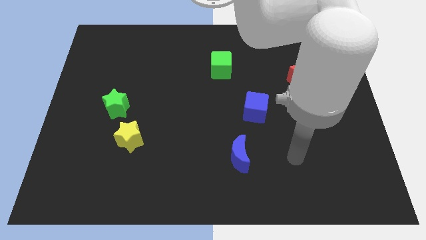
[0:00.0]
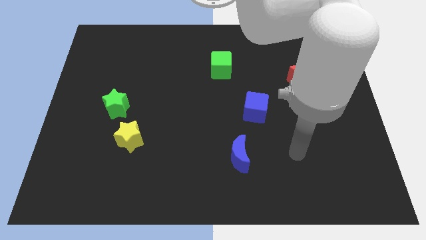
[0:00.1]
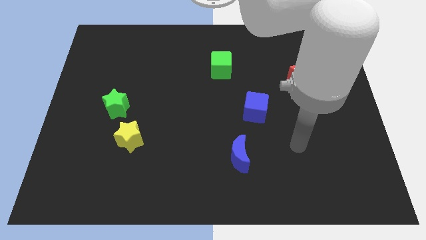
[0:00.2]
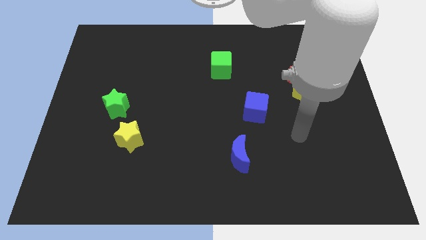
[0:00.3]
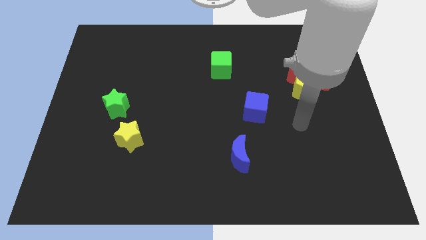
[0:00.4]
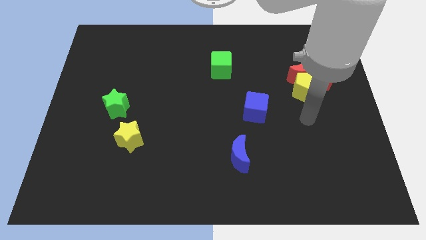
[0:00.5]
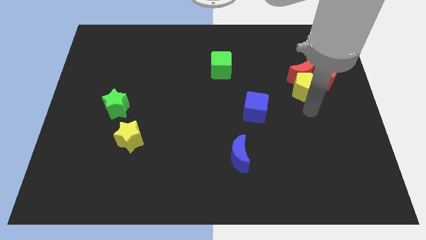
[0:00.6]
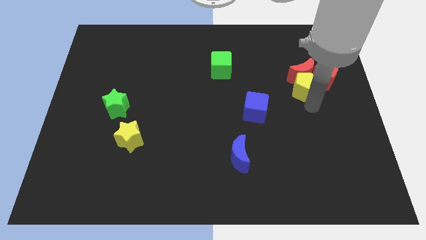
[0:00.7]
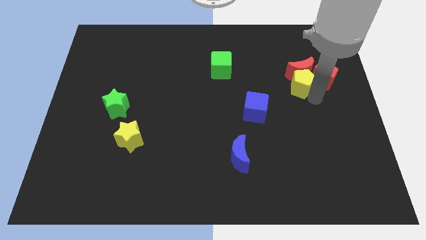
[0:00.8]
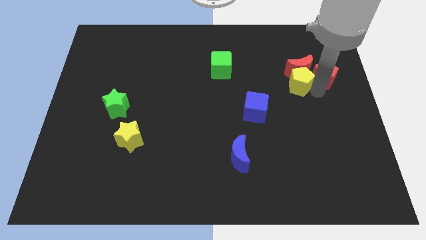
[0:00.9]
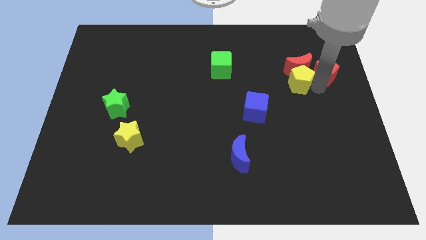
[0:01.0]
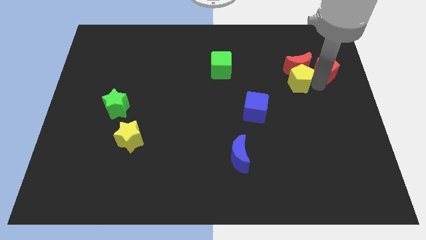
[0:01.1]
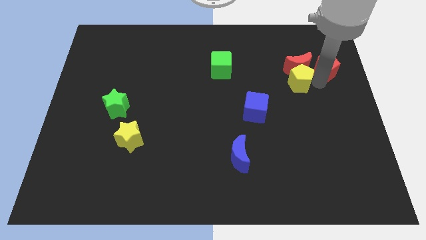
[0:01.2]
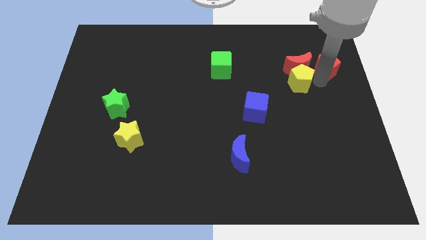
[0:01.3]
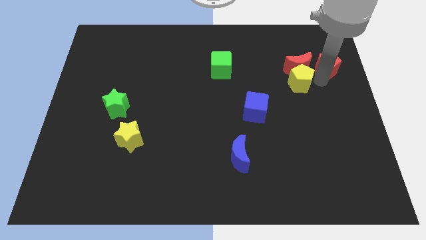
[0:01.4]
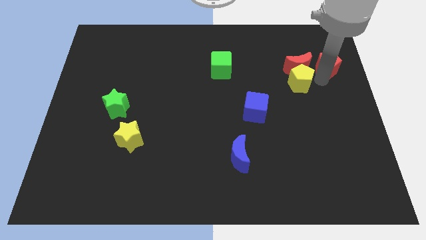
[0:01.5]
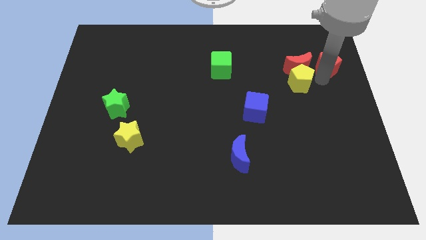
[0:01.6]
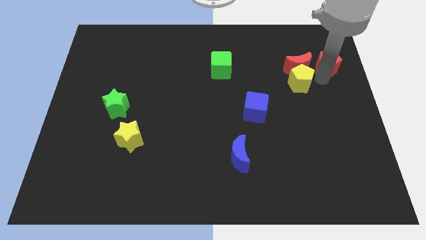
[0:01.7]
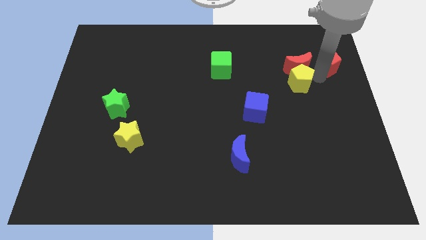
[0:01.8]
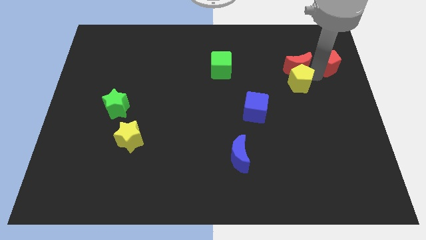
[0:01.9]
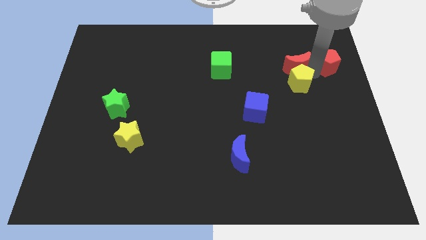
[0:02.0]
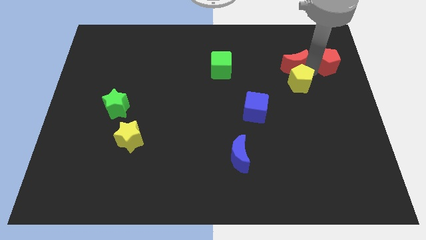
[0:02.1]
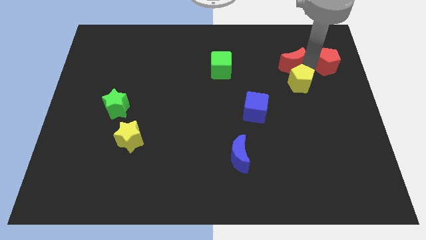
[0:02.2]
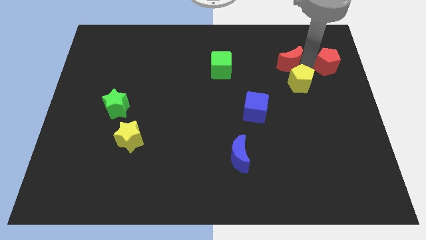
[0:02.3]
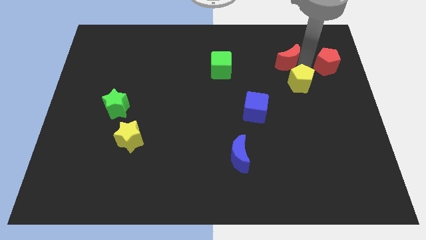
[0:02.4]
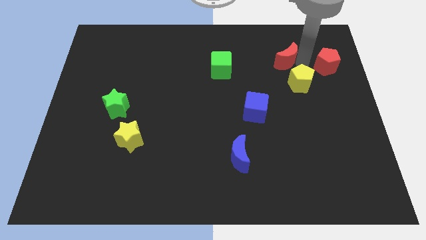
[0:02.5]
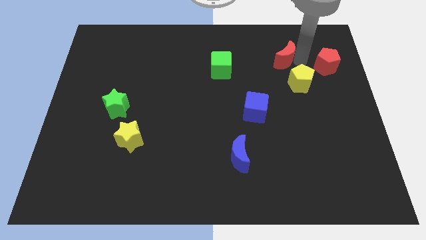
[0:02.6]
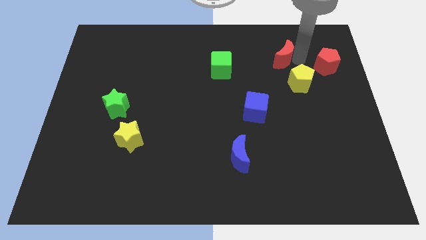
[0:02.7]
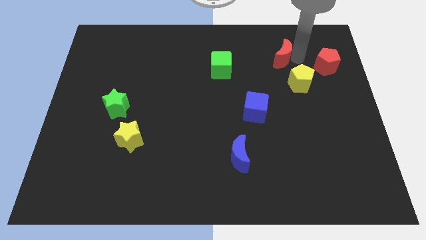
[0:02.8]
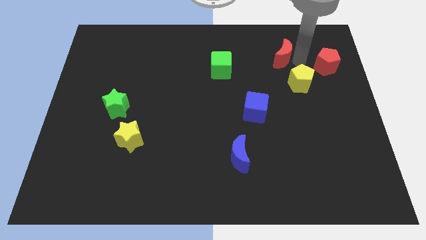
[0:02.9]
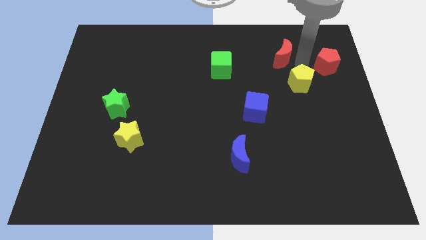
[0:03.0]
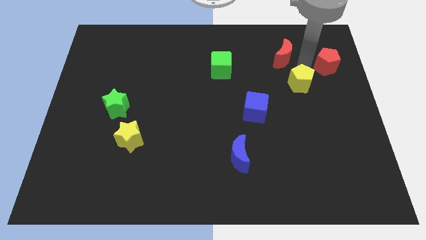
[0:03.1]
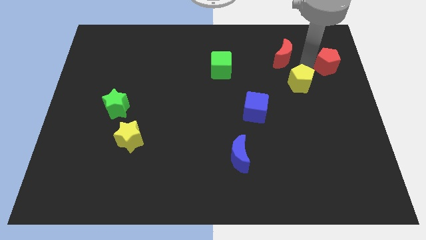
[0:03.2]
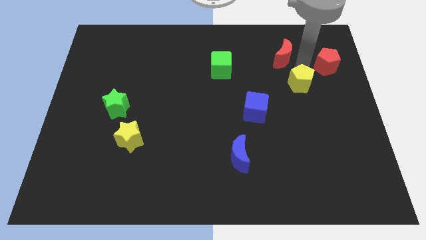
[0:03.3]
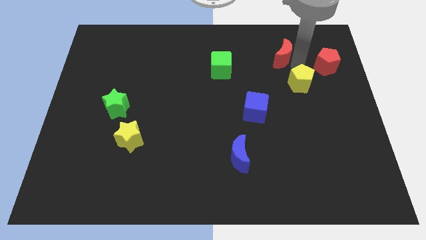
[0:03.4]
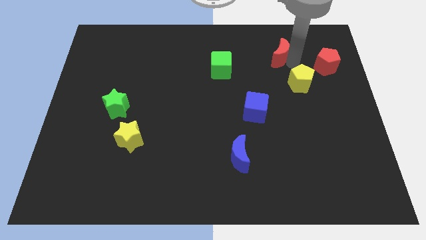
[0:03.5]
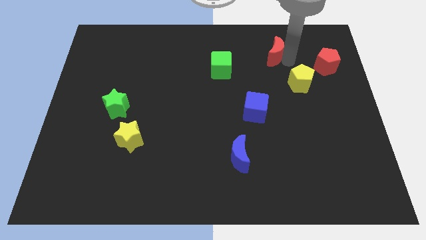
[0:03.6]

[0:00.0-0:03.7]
move the red moon away from the yellow pentagon and red pentagon

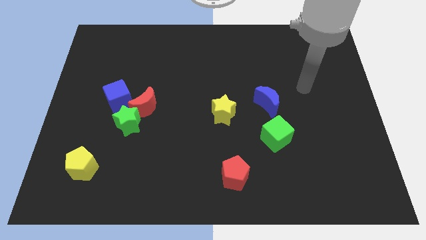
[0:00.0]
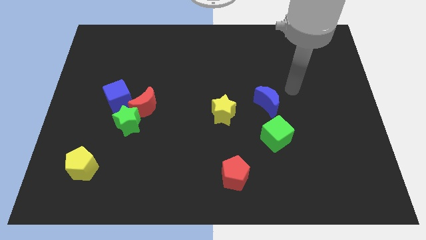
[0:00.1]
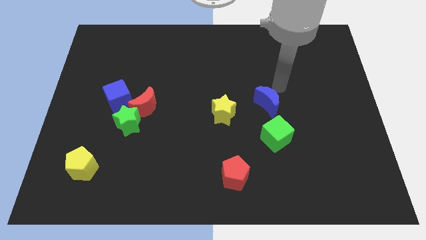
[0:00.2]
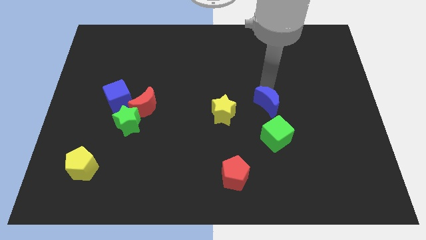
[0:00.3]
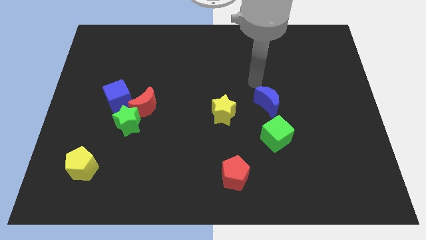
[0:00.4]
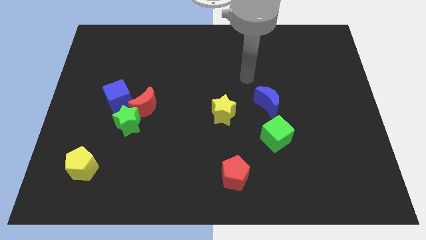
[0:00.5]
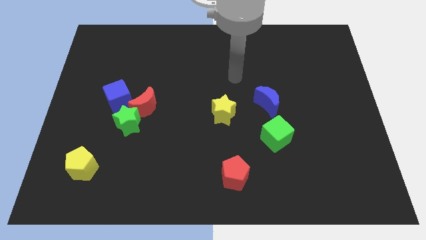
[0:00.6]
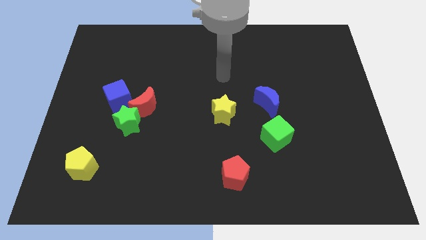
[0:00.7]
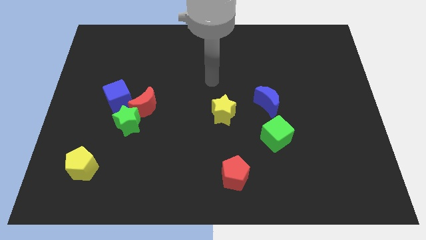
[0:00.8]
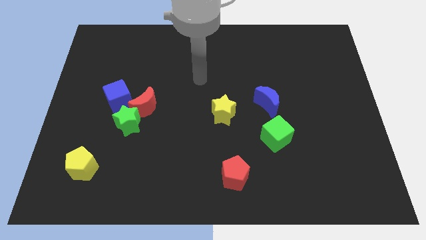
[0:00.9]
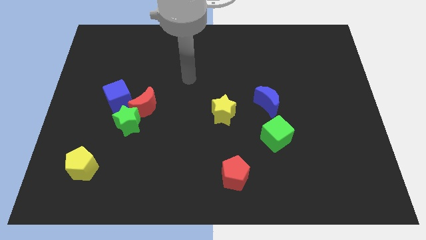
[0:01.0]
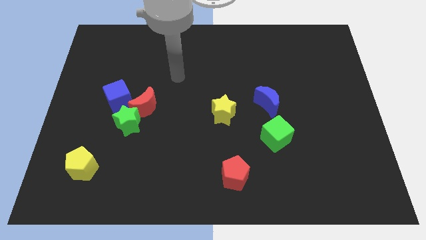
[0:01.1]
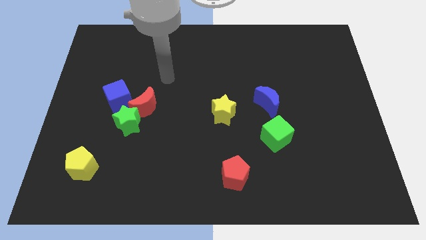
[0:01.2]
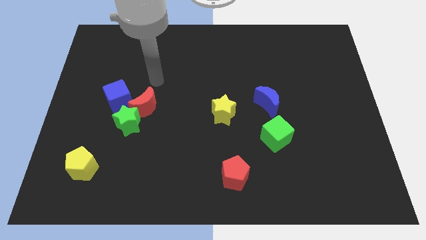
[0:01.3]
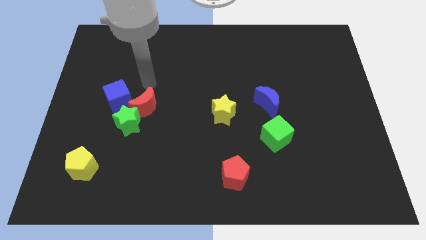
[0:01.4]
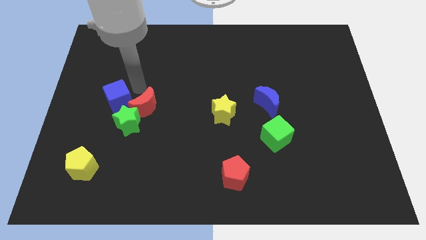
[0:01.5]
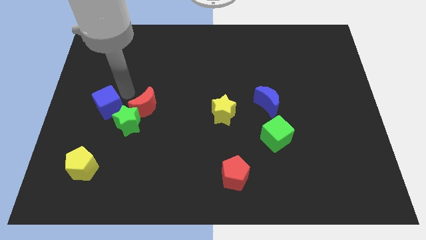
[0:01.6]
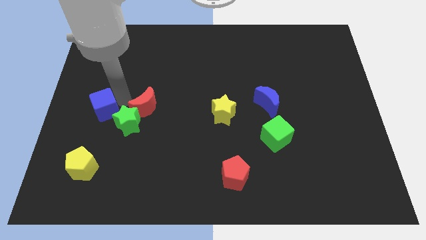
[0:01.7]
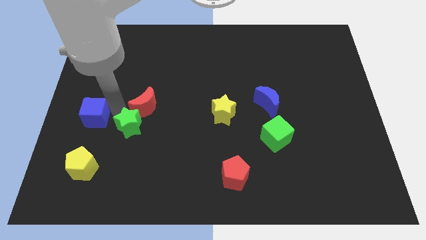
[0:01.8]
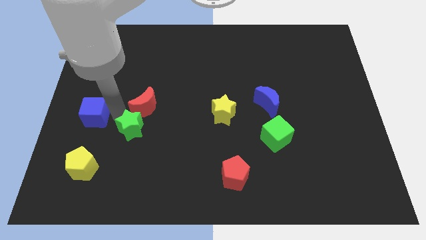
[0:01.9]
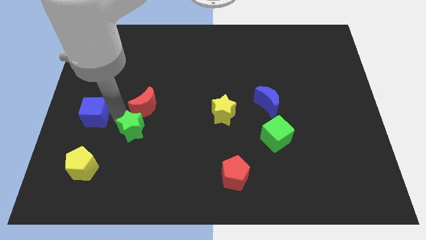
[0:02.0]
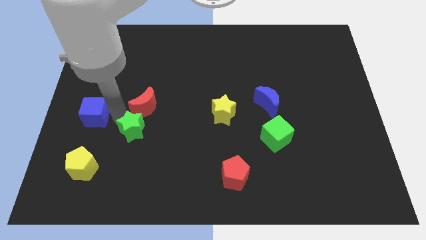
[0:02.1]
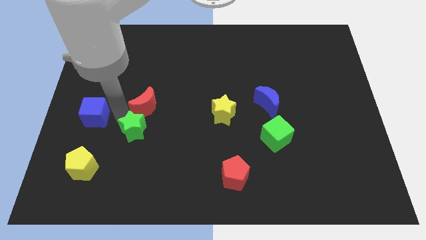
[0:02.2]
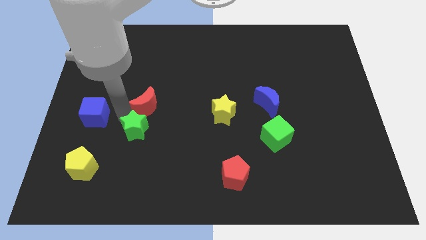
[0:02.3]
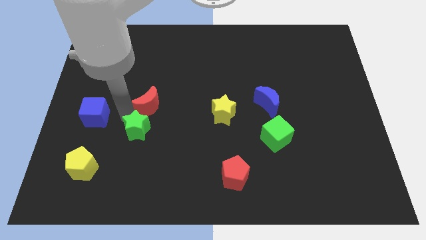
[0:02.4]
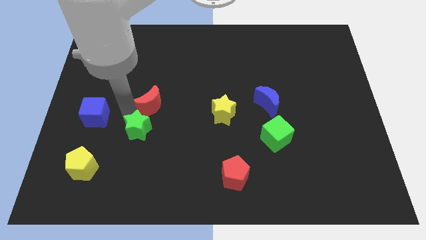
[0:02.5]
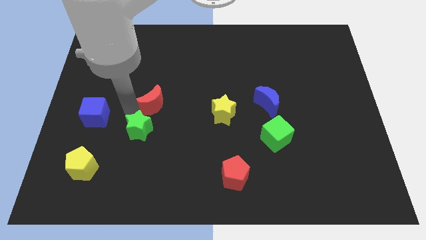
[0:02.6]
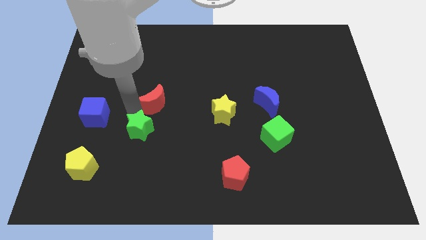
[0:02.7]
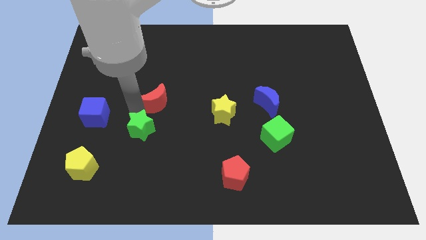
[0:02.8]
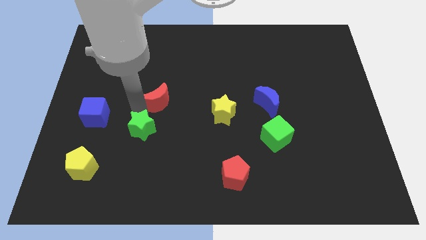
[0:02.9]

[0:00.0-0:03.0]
pull the red moon apart from the green star and blue cube

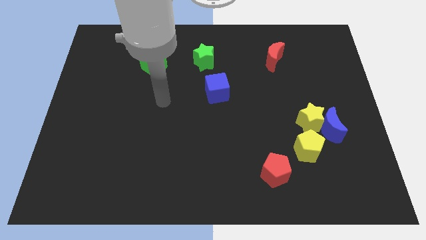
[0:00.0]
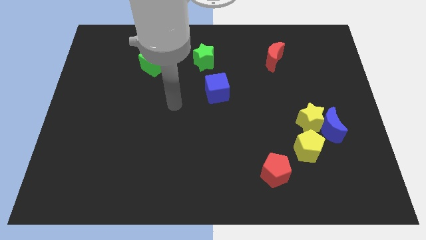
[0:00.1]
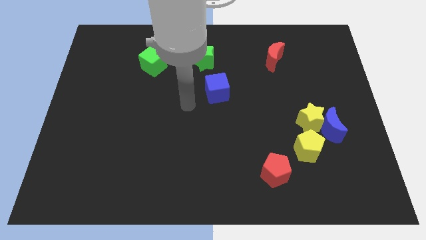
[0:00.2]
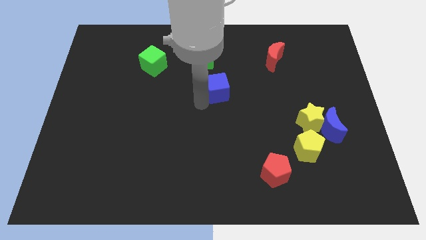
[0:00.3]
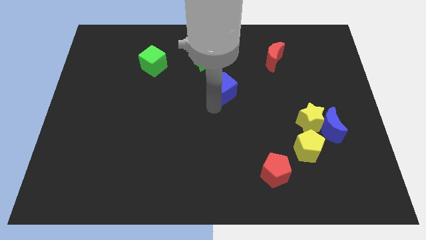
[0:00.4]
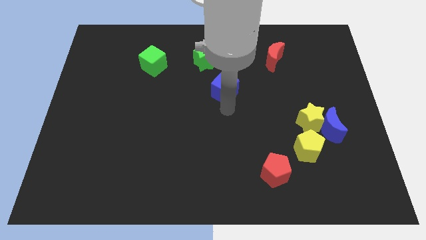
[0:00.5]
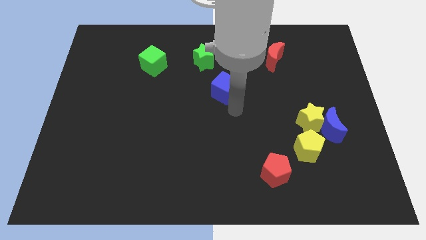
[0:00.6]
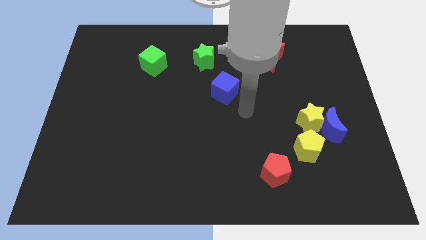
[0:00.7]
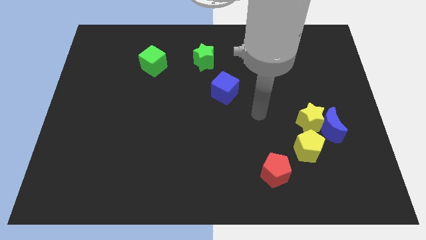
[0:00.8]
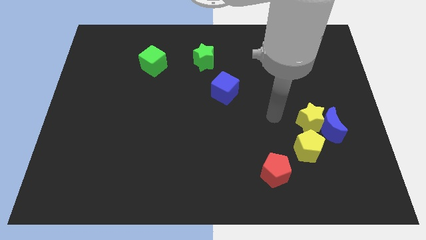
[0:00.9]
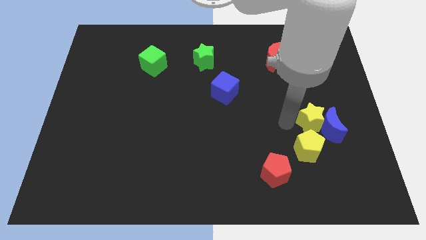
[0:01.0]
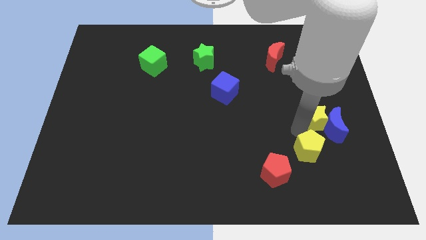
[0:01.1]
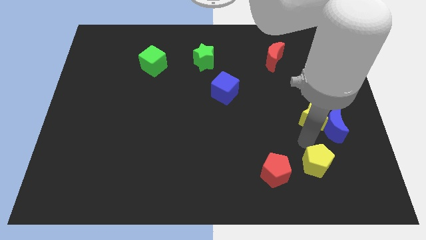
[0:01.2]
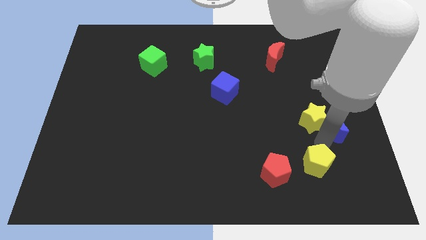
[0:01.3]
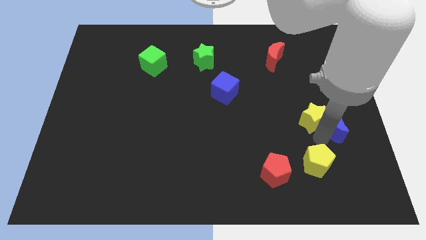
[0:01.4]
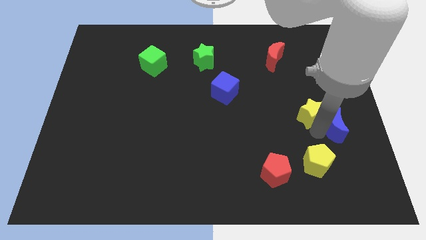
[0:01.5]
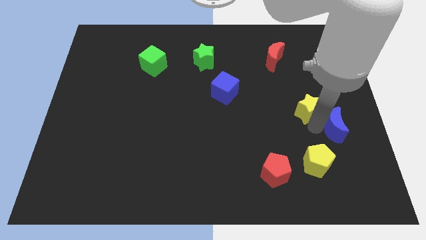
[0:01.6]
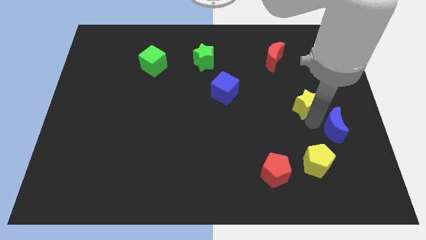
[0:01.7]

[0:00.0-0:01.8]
separate the yellow star from the blue moon and yellow pentagon

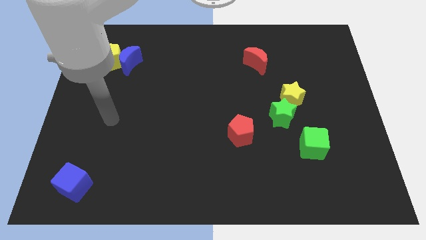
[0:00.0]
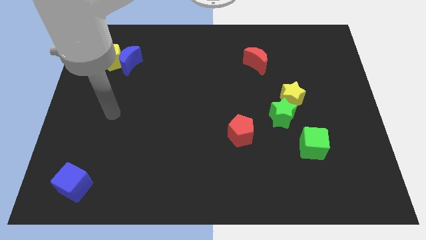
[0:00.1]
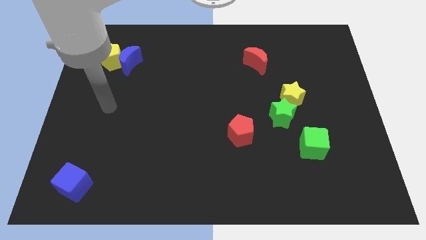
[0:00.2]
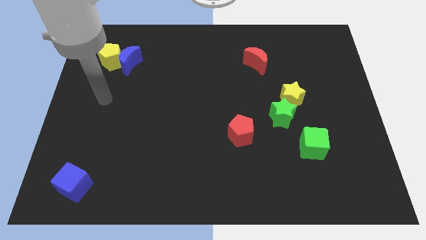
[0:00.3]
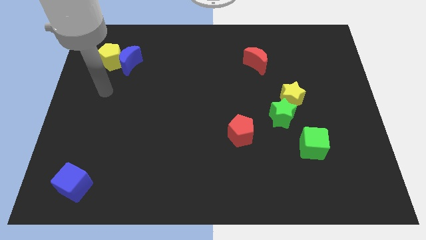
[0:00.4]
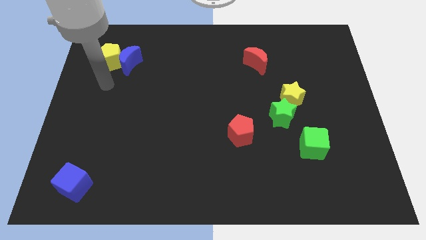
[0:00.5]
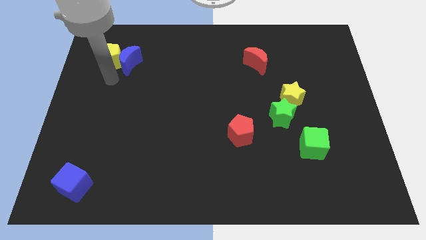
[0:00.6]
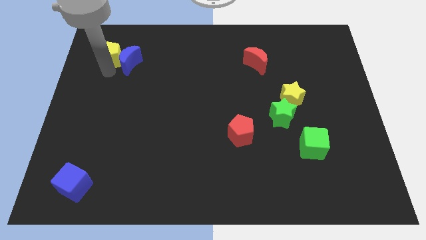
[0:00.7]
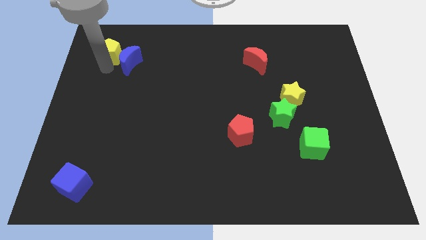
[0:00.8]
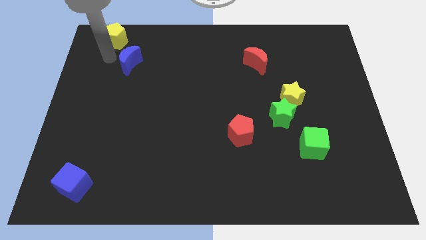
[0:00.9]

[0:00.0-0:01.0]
separate the blue moon from the yellow pentagon
